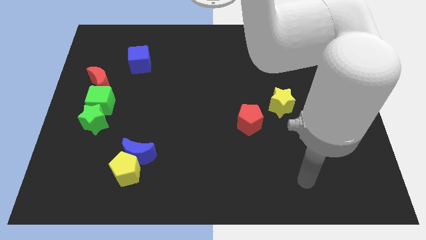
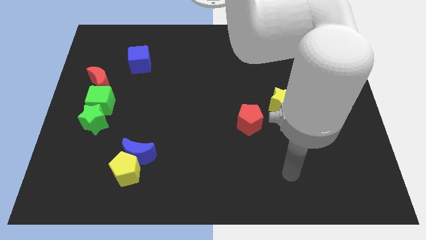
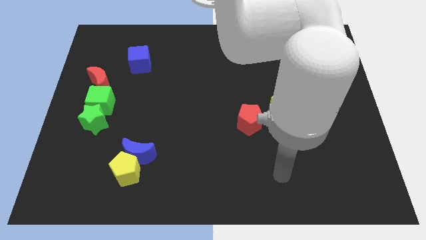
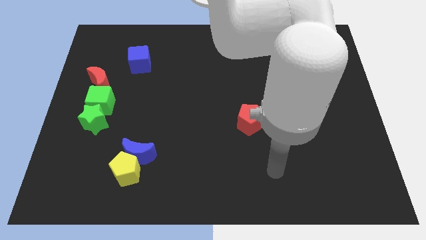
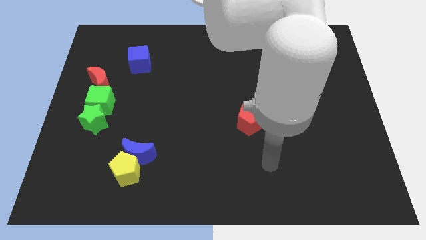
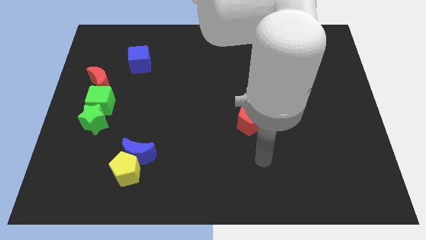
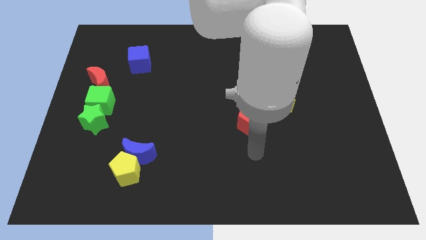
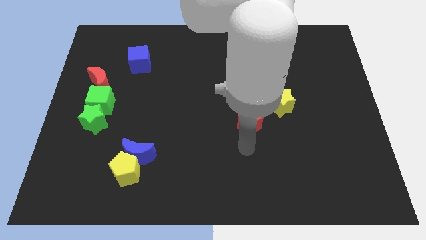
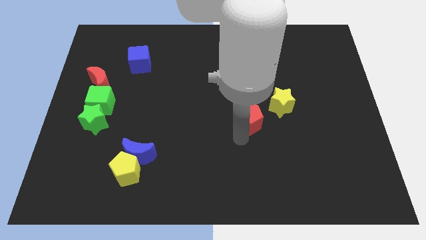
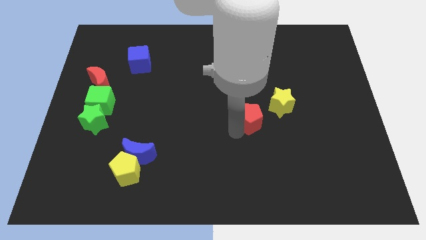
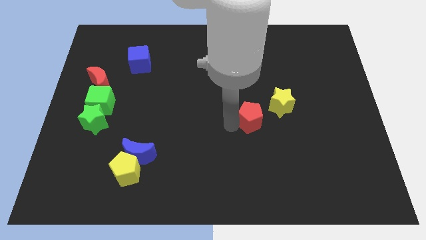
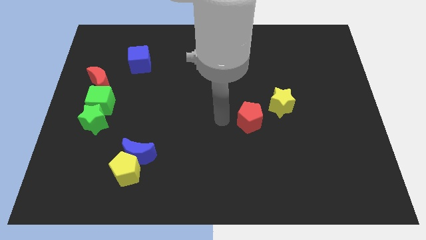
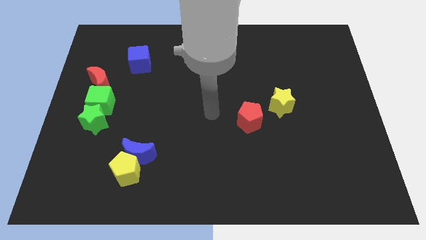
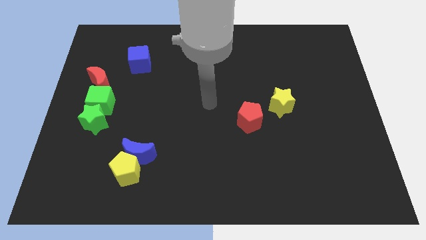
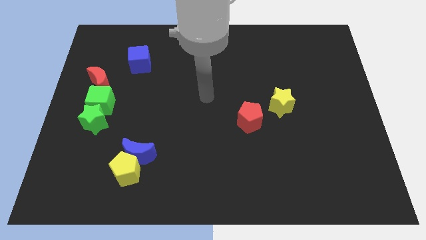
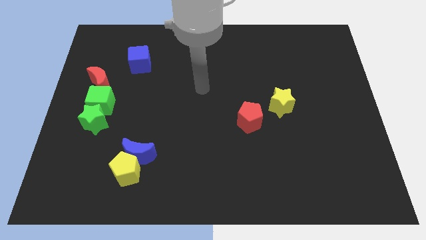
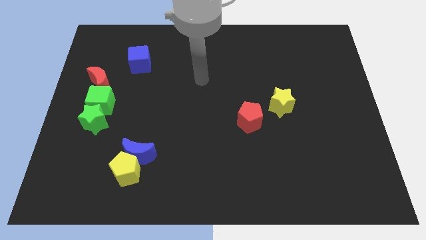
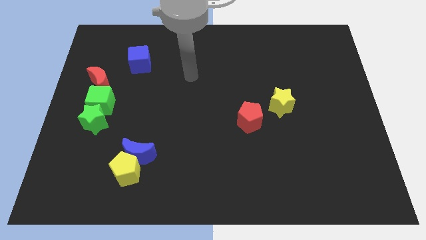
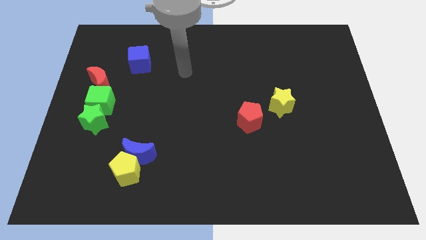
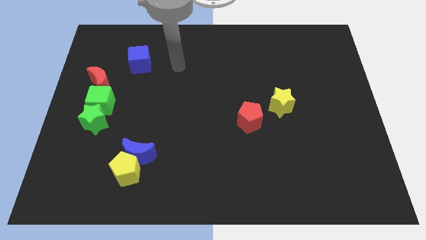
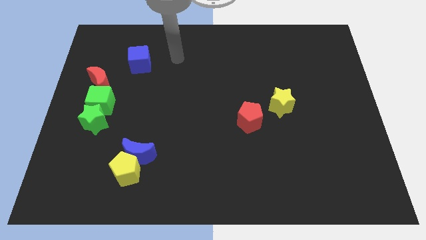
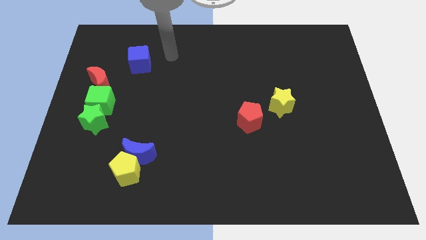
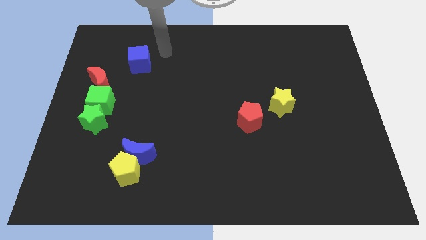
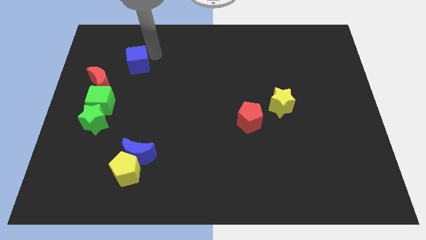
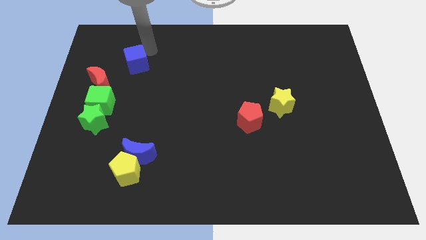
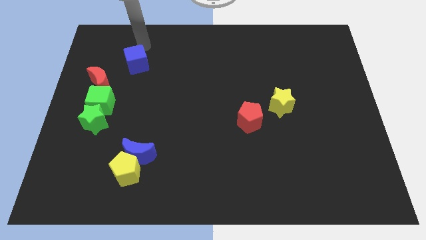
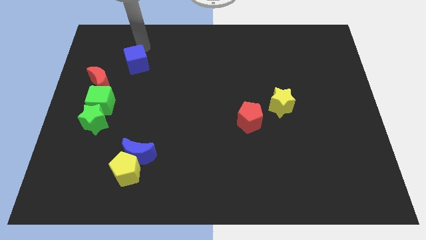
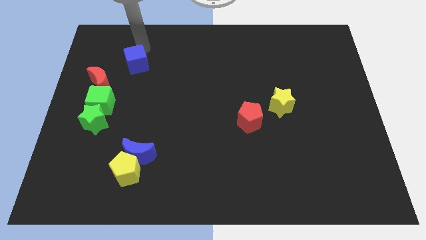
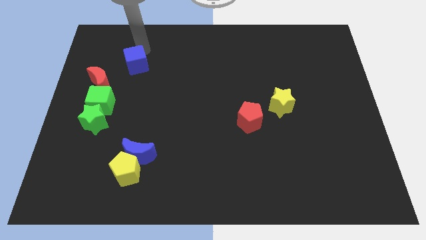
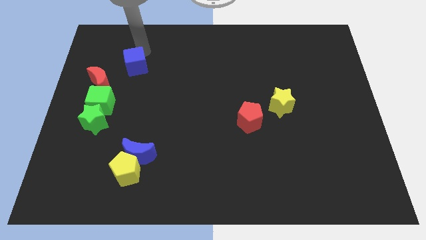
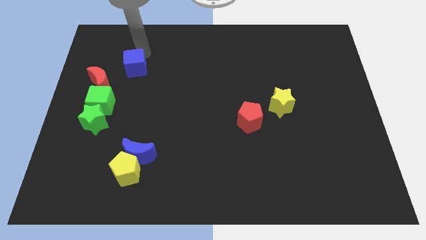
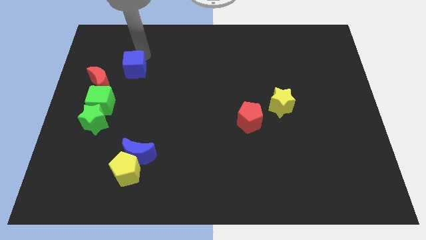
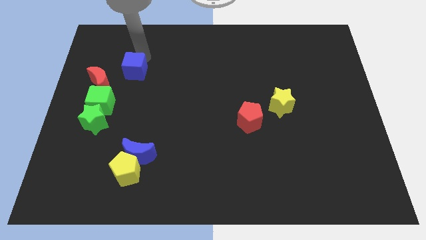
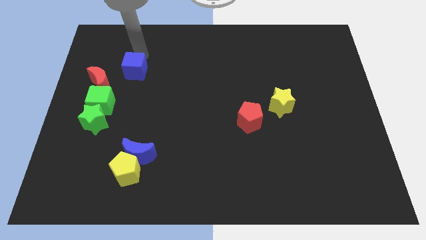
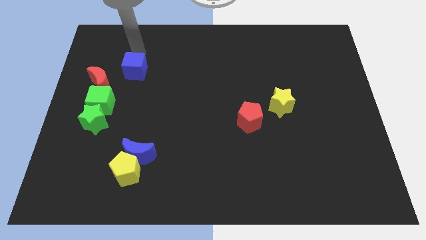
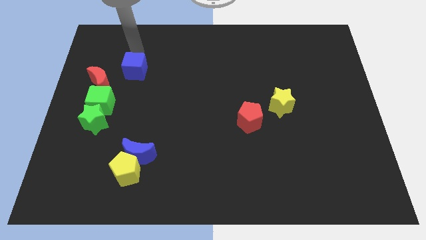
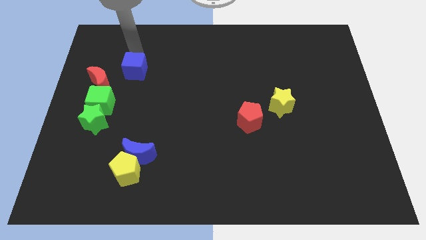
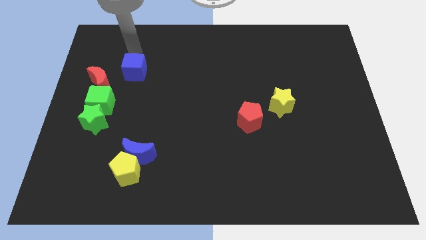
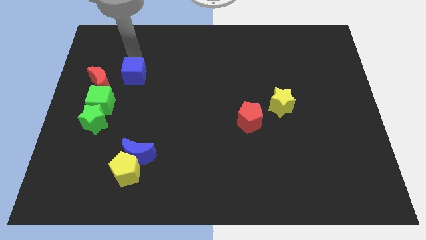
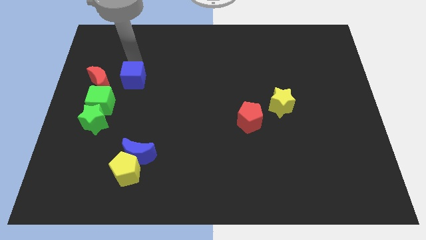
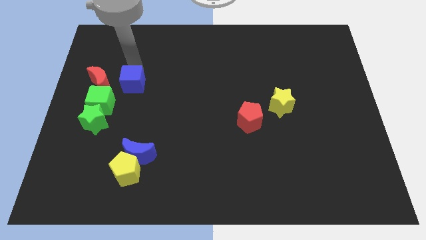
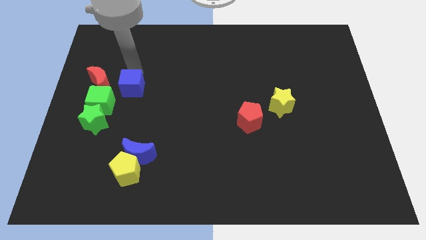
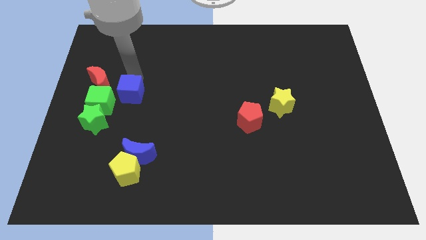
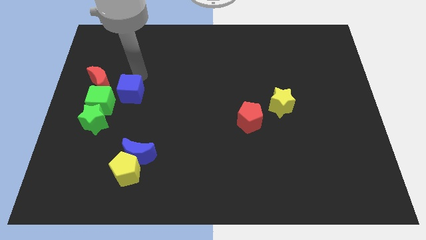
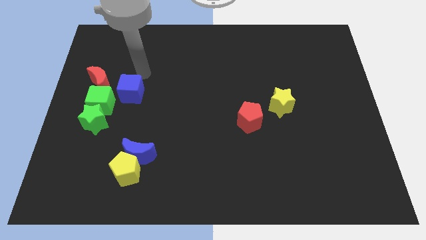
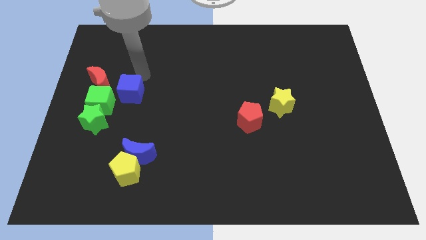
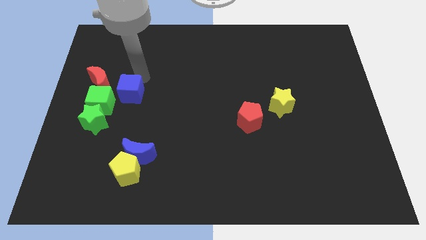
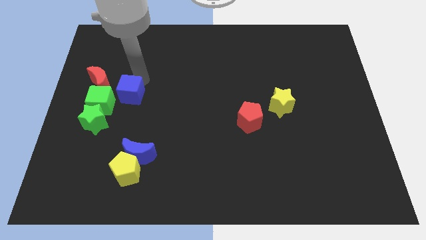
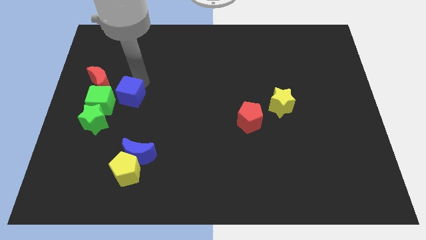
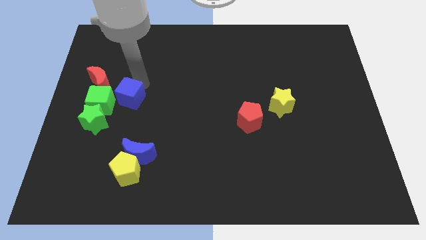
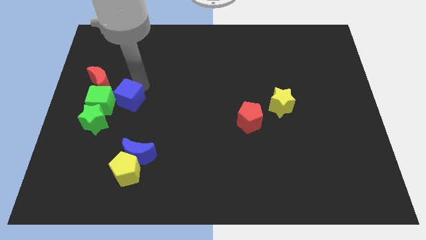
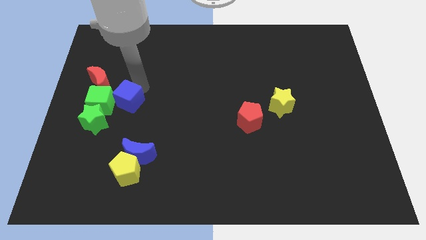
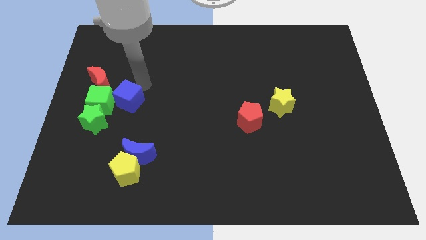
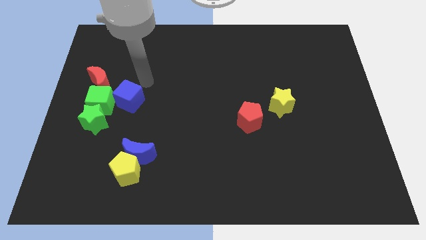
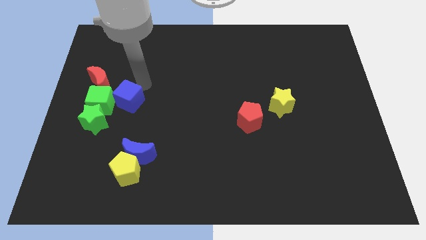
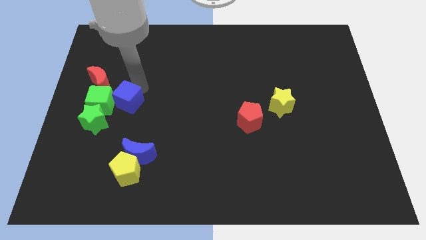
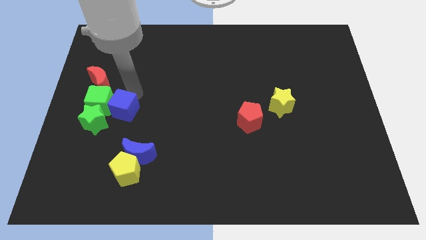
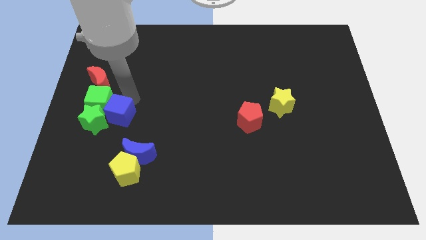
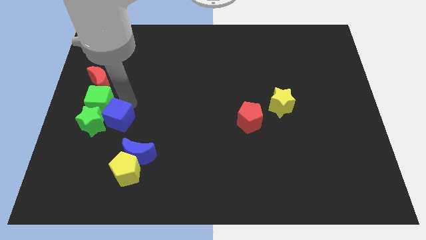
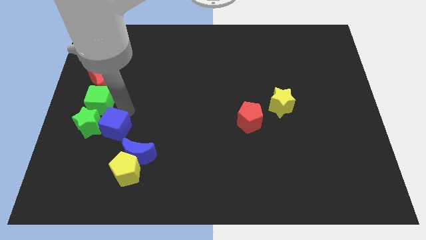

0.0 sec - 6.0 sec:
move the blue cube below the green cube

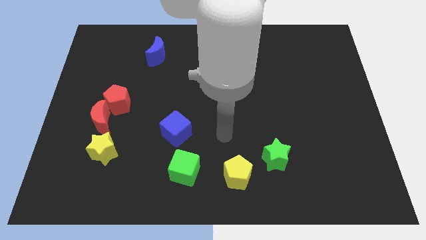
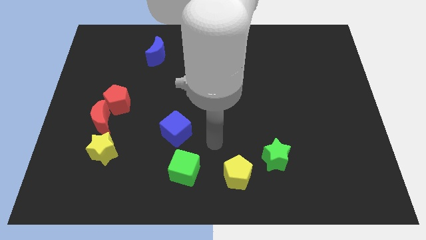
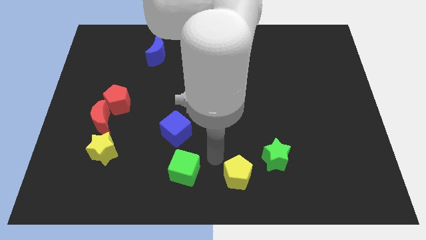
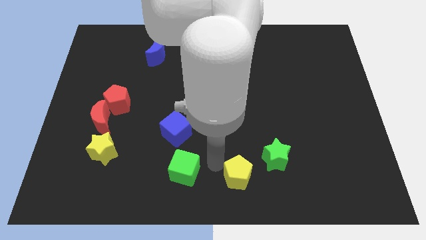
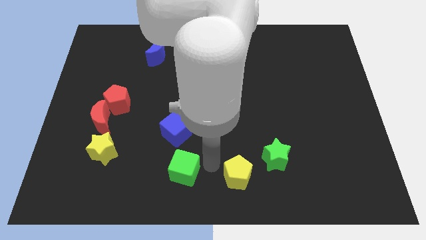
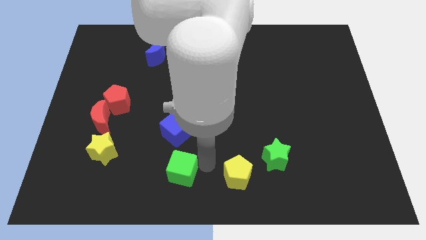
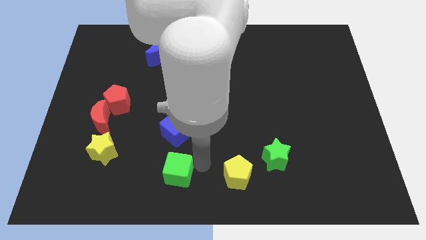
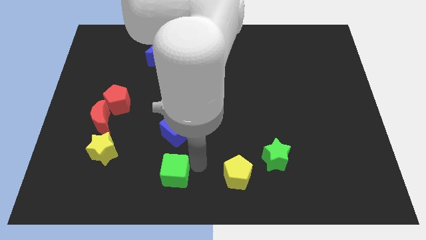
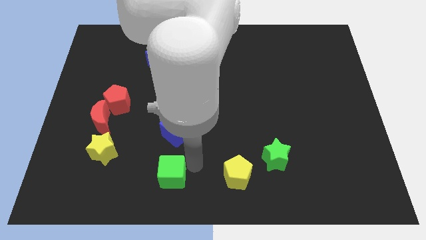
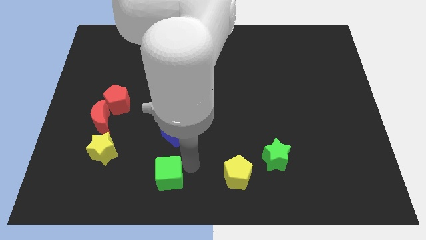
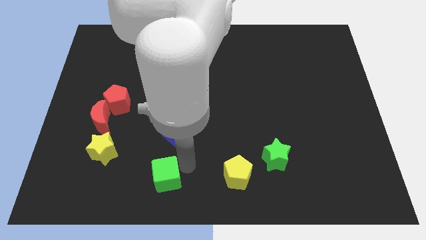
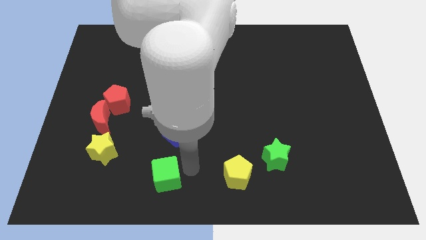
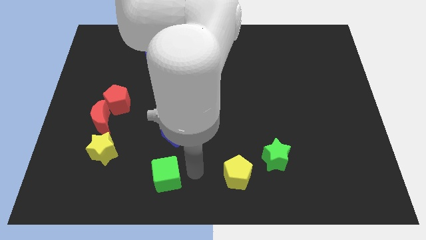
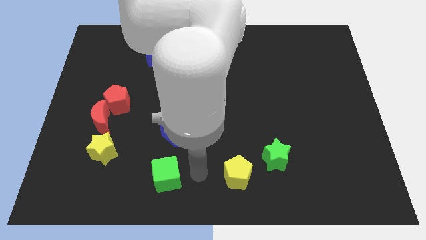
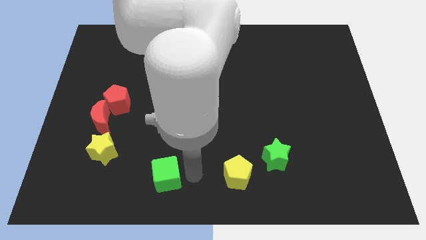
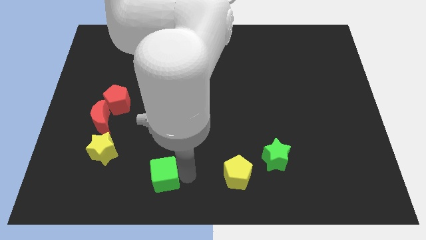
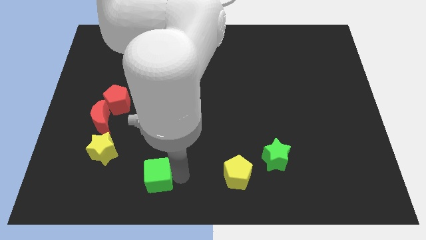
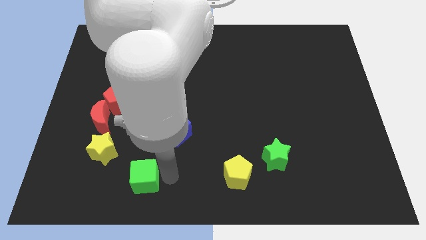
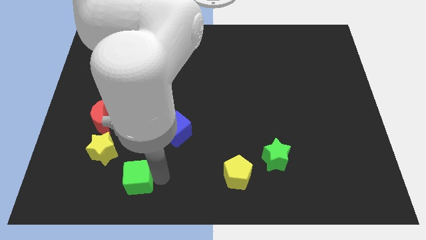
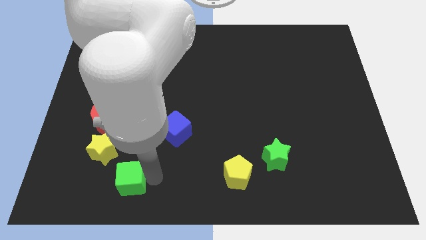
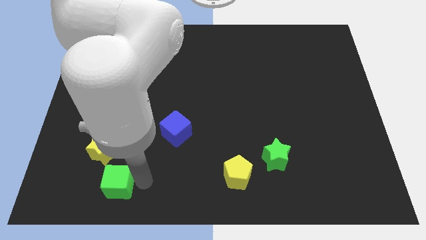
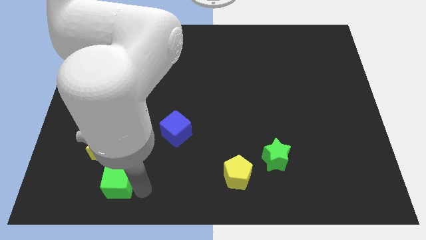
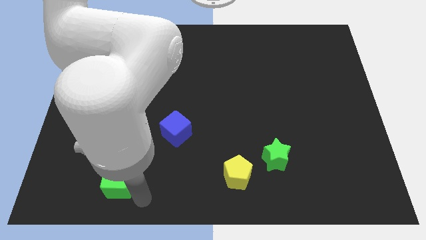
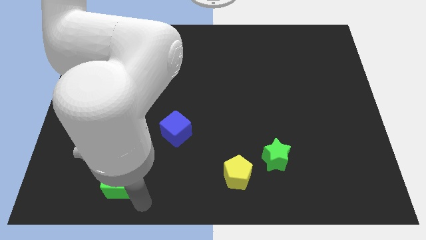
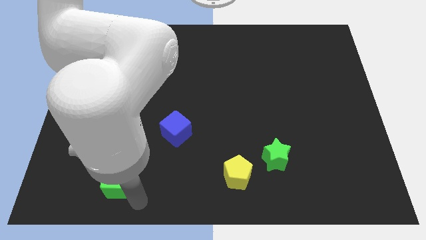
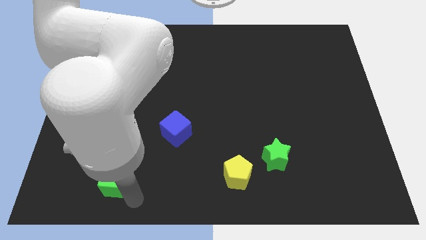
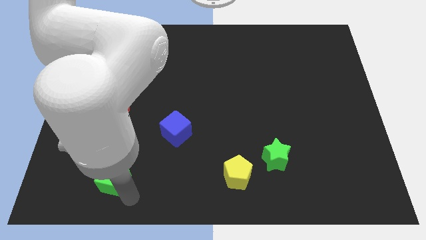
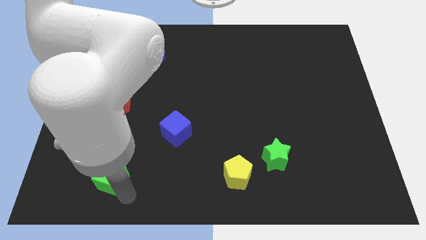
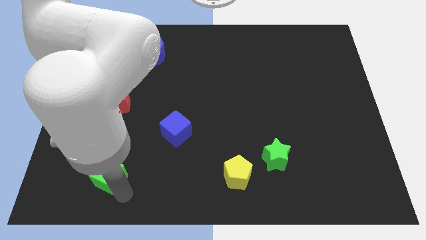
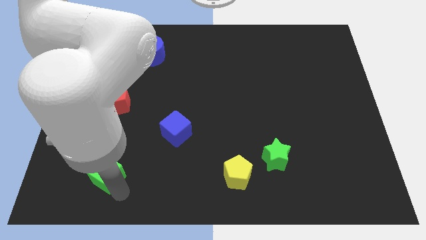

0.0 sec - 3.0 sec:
put the green cube below the red moon
